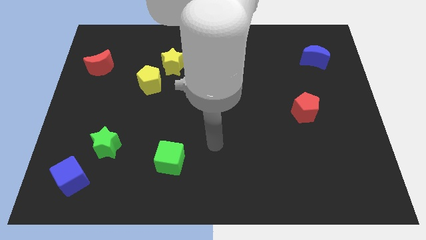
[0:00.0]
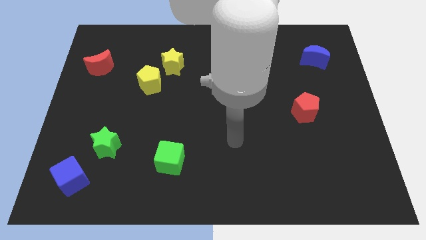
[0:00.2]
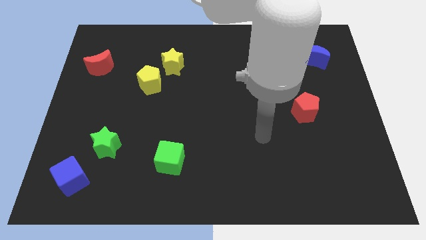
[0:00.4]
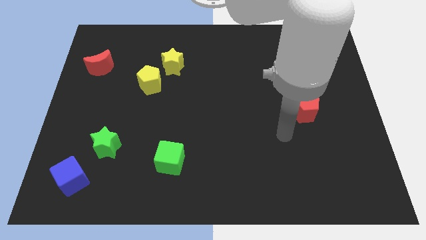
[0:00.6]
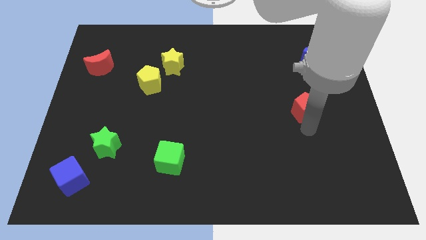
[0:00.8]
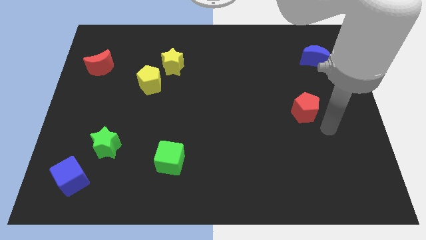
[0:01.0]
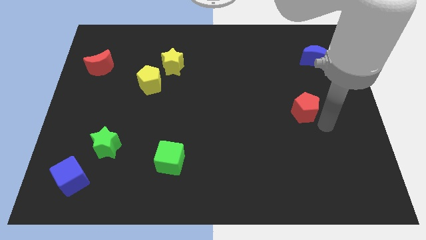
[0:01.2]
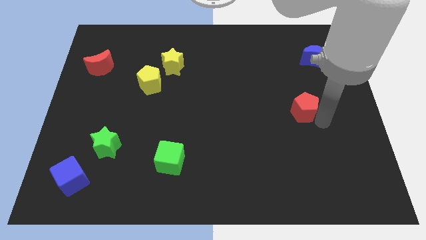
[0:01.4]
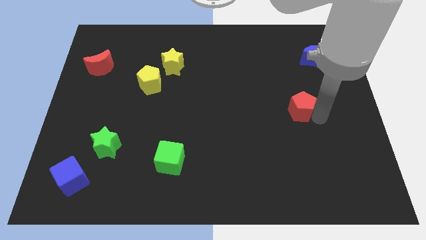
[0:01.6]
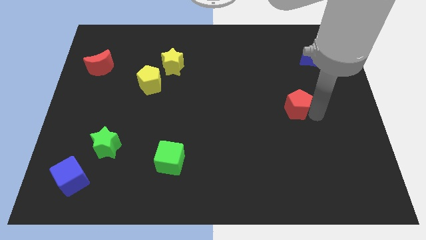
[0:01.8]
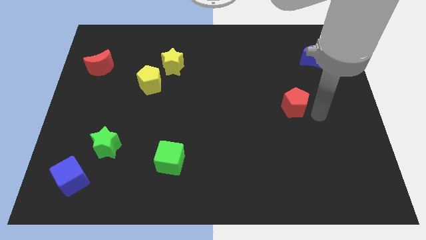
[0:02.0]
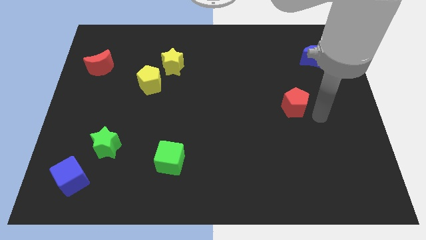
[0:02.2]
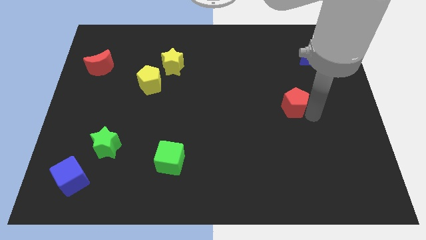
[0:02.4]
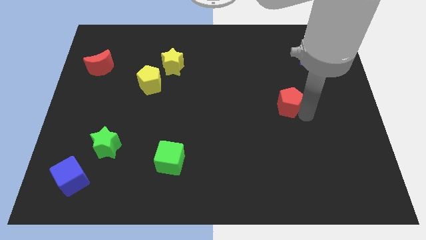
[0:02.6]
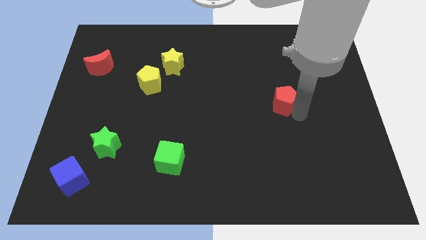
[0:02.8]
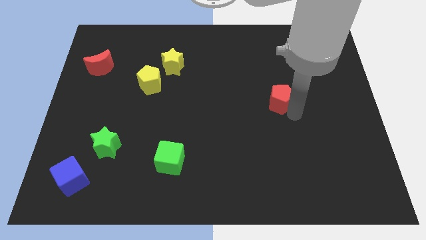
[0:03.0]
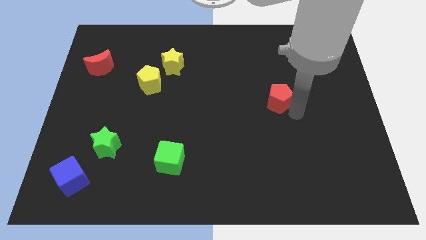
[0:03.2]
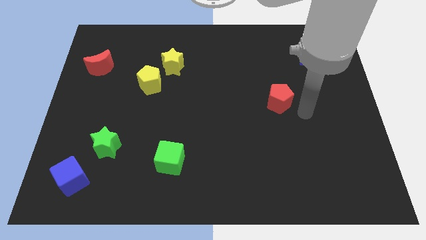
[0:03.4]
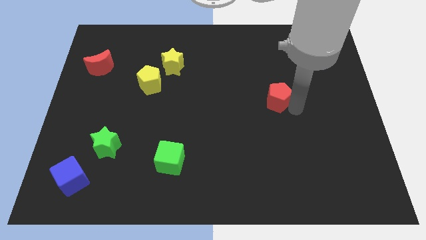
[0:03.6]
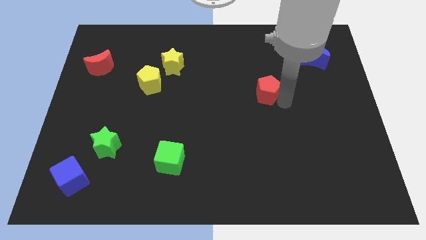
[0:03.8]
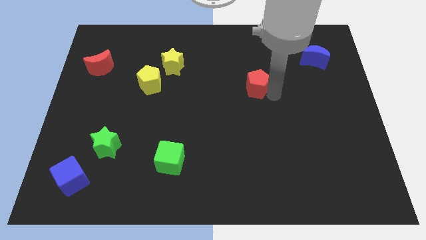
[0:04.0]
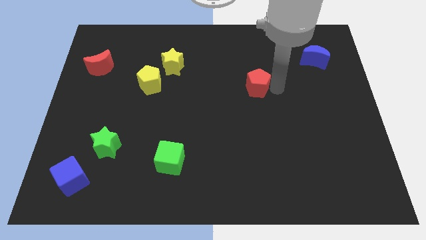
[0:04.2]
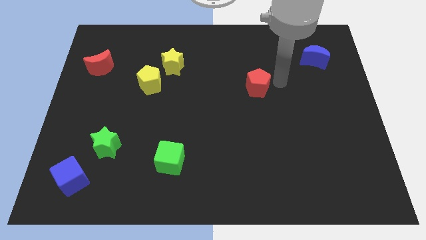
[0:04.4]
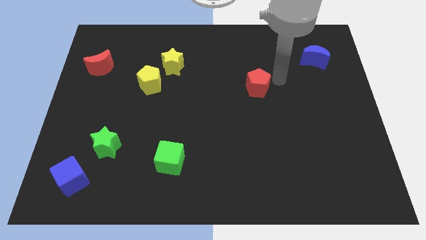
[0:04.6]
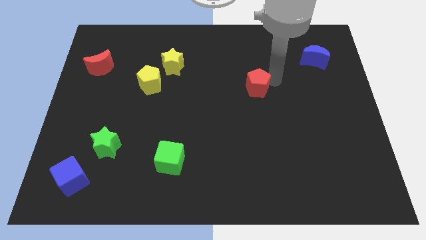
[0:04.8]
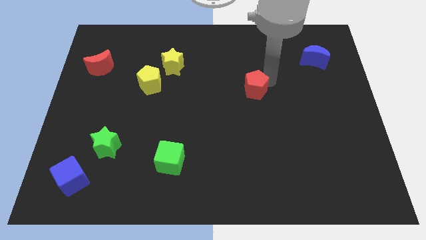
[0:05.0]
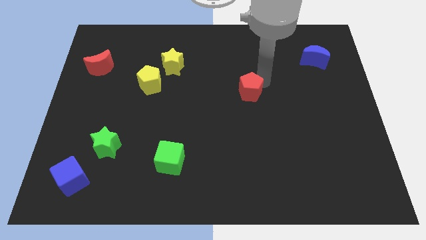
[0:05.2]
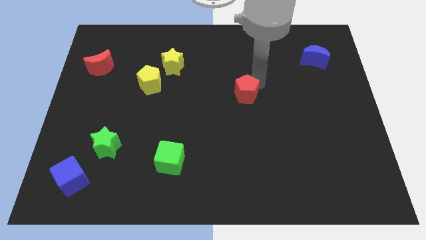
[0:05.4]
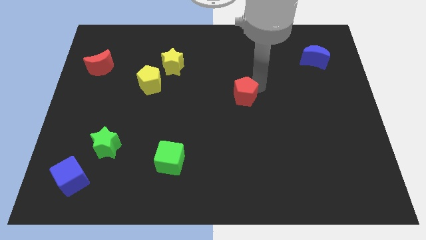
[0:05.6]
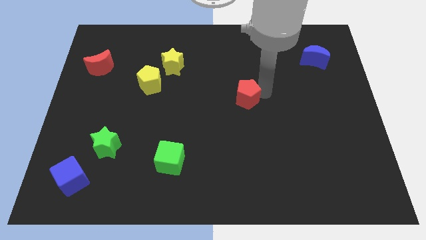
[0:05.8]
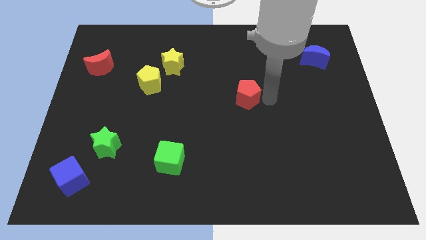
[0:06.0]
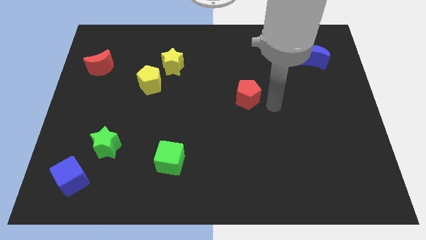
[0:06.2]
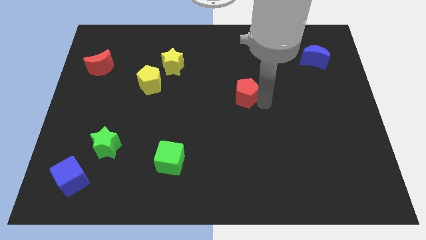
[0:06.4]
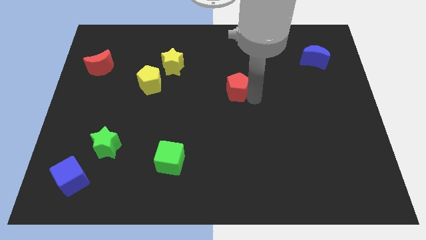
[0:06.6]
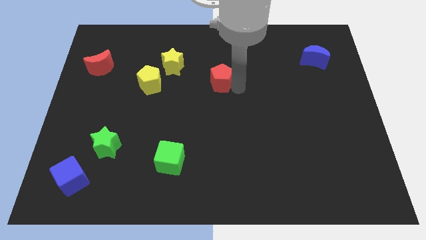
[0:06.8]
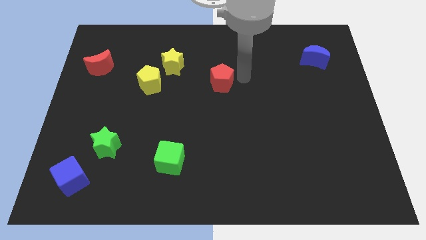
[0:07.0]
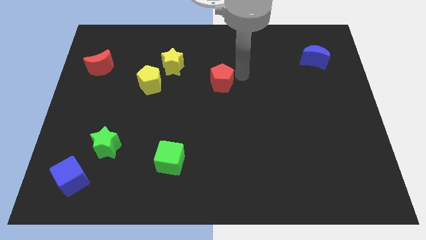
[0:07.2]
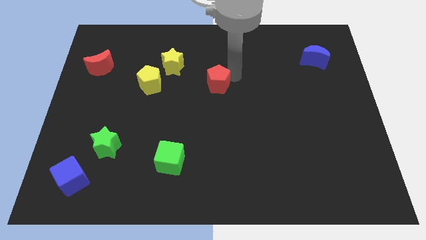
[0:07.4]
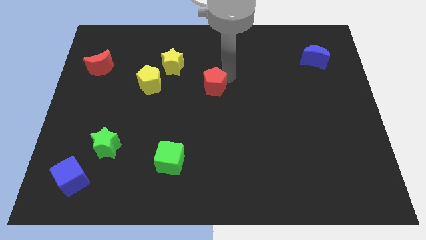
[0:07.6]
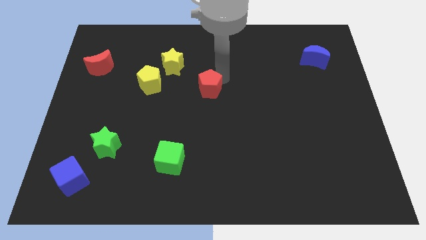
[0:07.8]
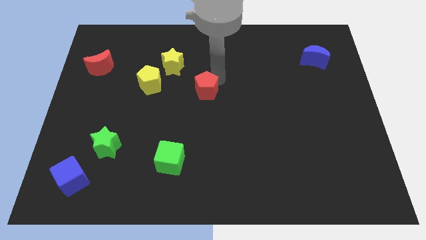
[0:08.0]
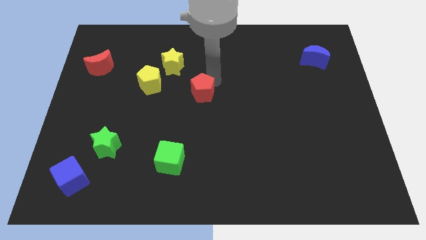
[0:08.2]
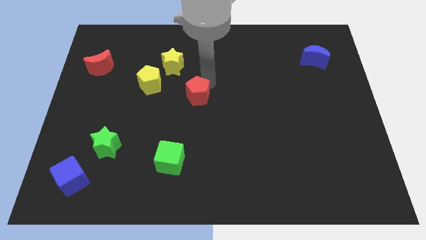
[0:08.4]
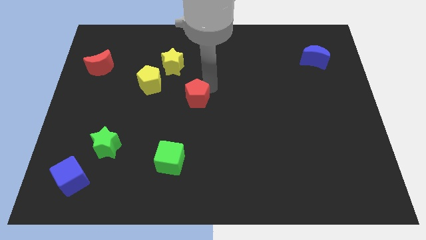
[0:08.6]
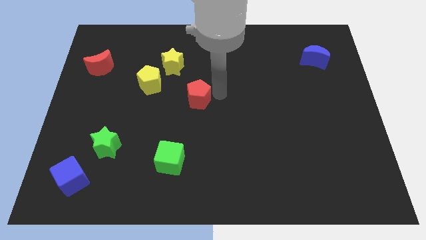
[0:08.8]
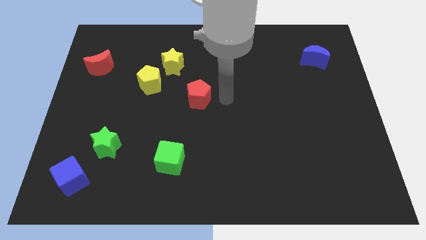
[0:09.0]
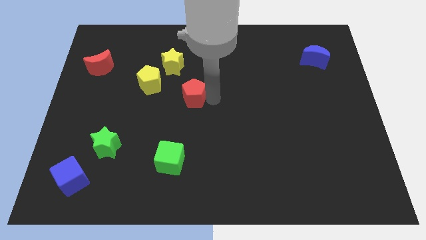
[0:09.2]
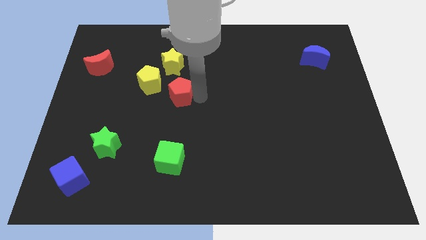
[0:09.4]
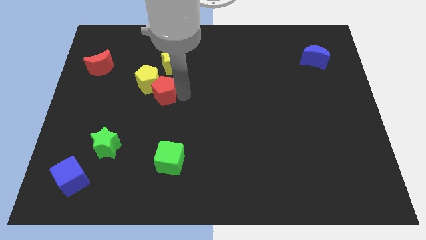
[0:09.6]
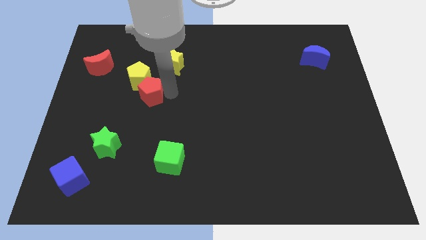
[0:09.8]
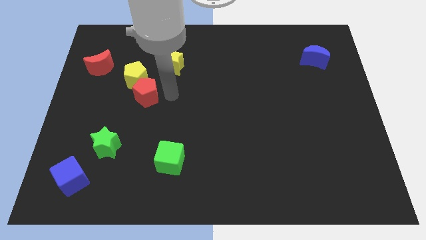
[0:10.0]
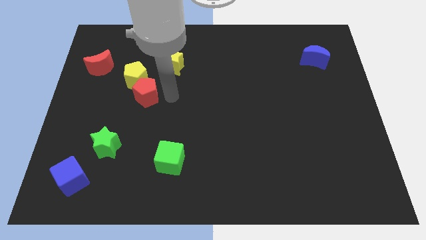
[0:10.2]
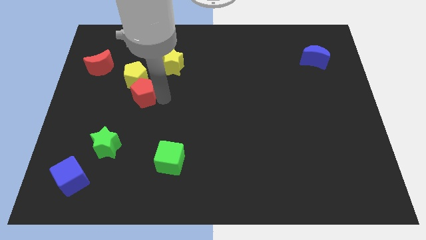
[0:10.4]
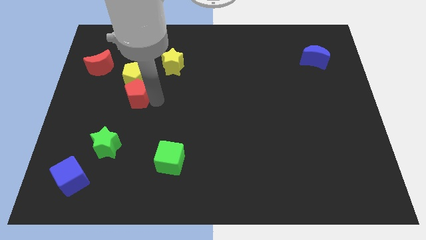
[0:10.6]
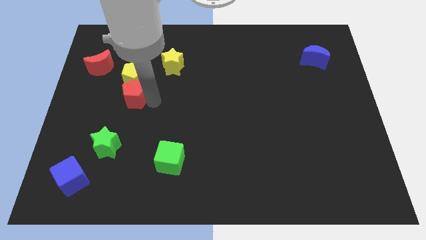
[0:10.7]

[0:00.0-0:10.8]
push the red pentagon to the bottom left side of the yellow pentagon

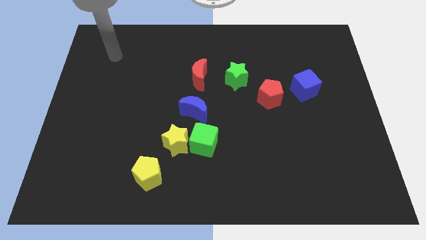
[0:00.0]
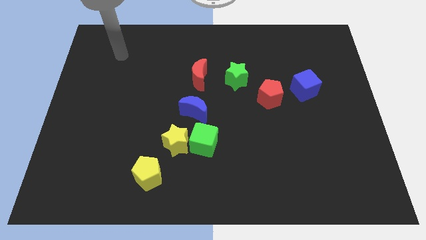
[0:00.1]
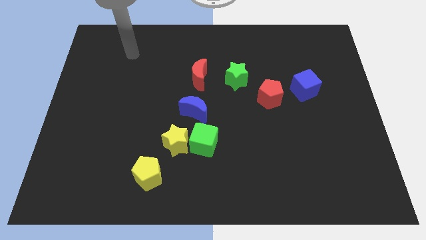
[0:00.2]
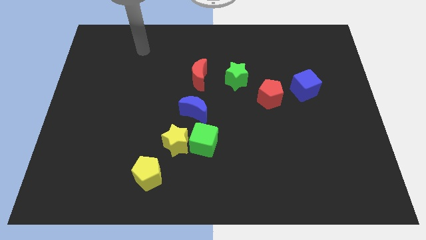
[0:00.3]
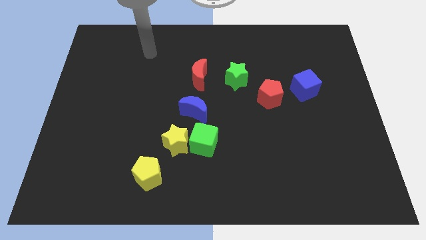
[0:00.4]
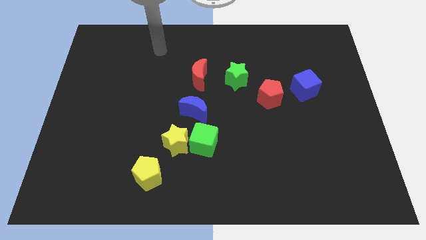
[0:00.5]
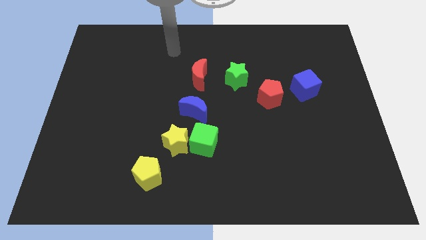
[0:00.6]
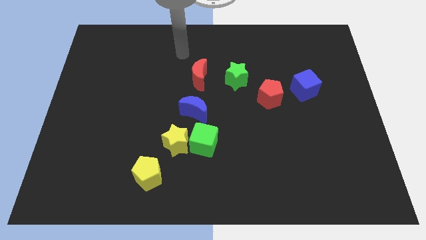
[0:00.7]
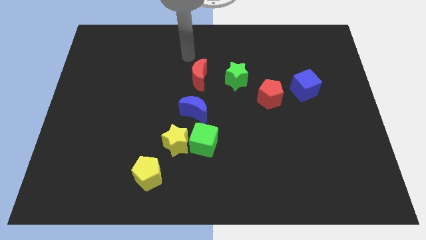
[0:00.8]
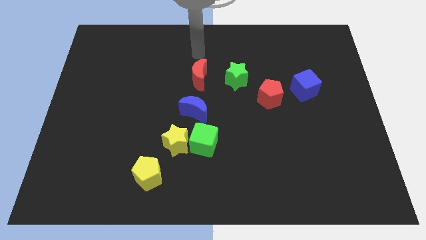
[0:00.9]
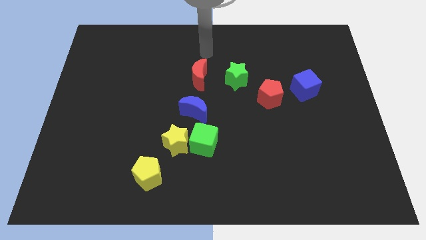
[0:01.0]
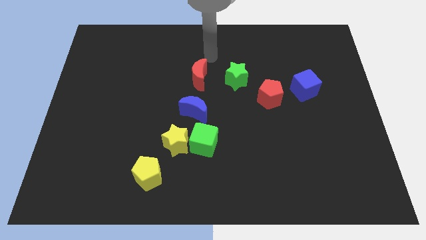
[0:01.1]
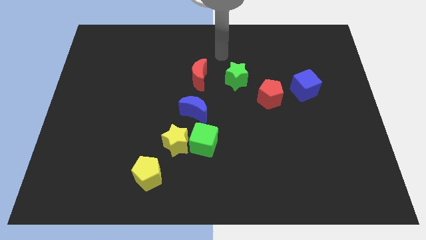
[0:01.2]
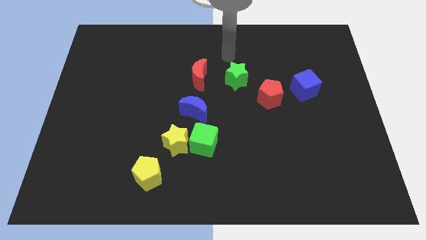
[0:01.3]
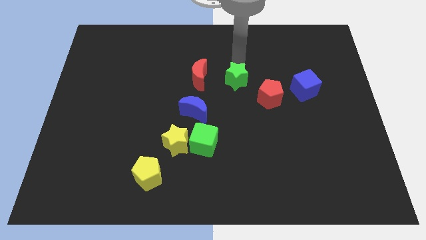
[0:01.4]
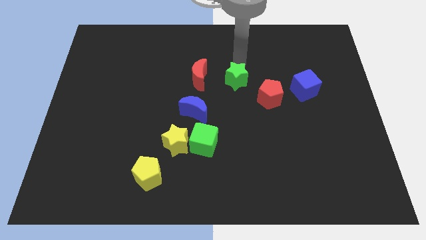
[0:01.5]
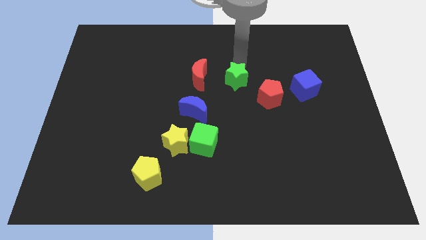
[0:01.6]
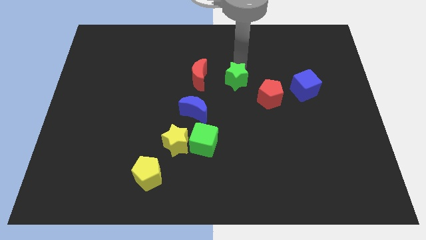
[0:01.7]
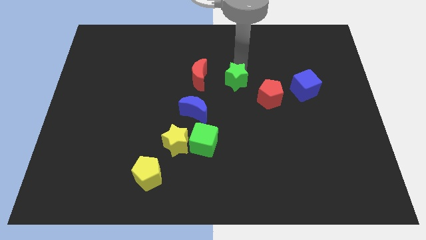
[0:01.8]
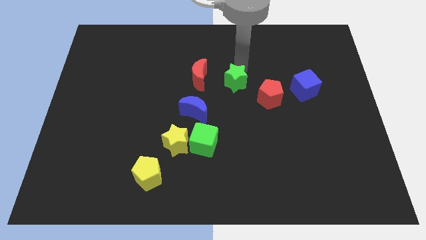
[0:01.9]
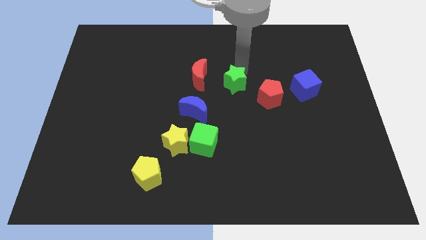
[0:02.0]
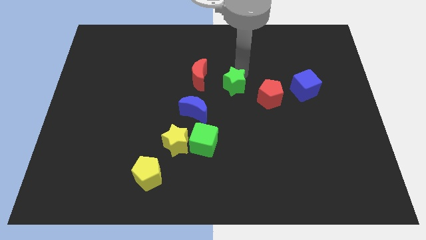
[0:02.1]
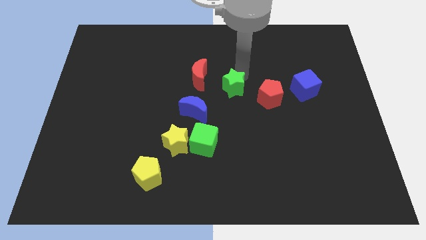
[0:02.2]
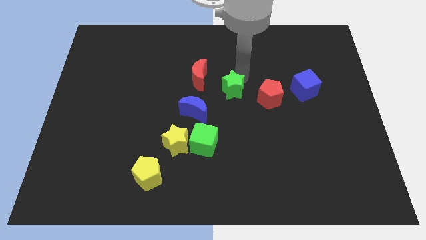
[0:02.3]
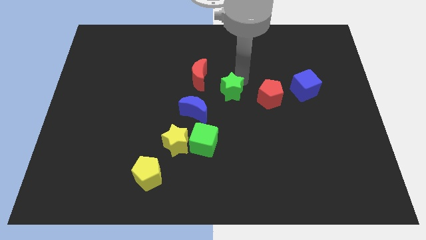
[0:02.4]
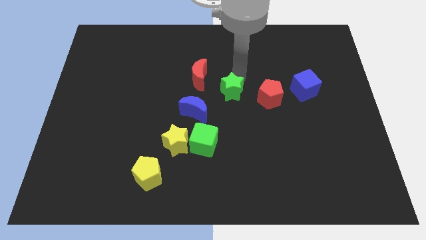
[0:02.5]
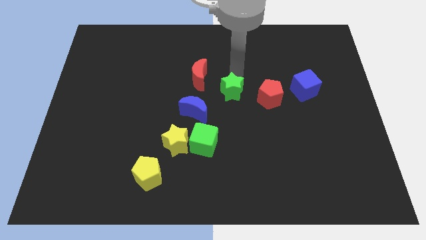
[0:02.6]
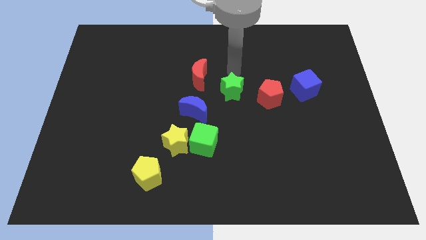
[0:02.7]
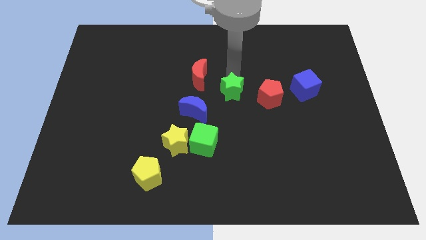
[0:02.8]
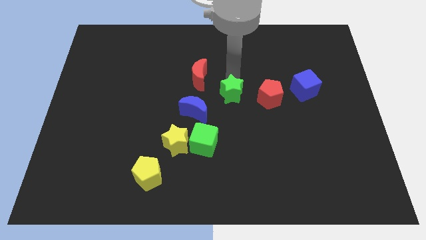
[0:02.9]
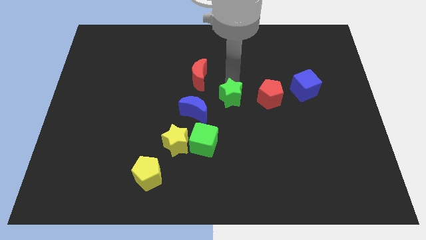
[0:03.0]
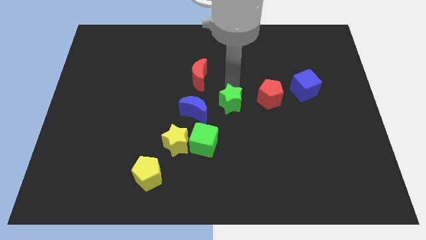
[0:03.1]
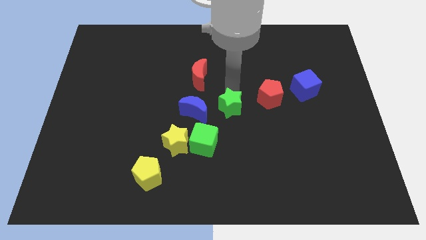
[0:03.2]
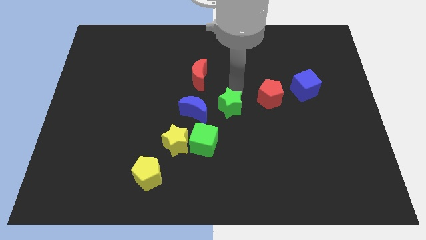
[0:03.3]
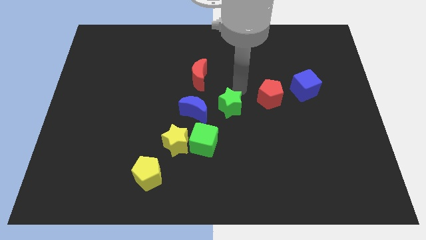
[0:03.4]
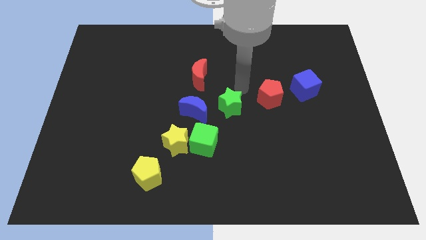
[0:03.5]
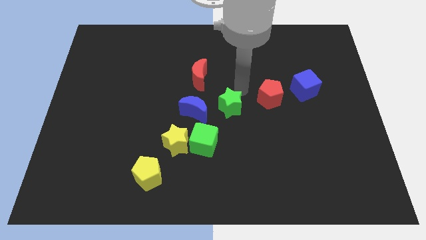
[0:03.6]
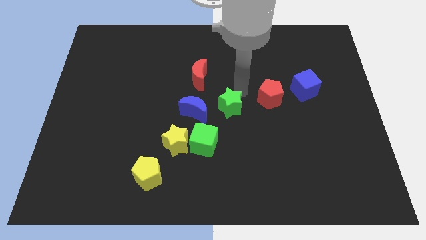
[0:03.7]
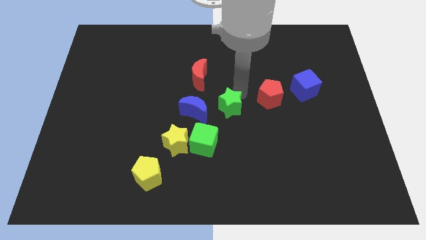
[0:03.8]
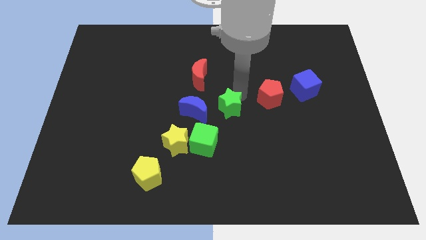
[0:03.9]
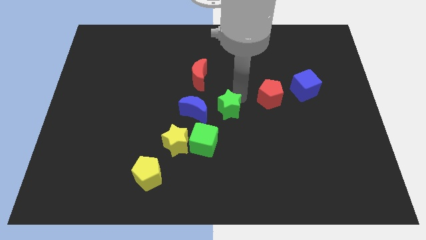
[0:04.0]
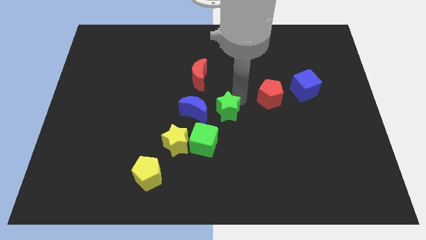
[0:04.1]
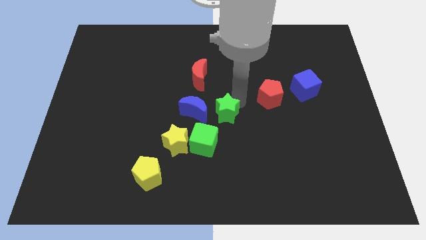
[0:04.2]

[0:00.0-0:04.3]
push the green star to the bottom right of the blue moon
